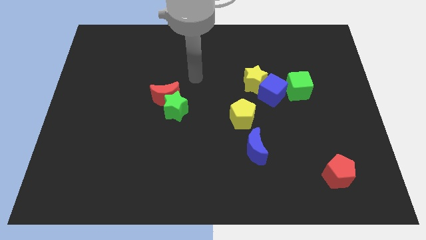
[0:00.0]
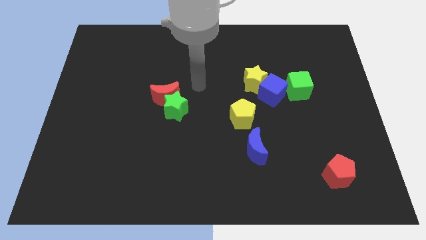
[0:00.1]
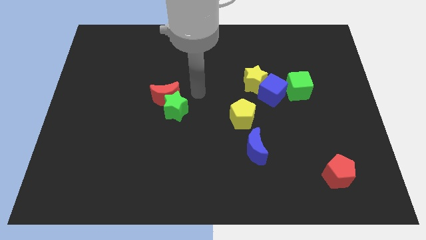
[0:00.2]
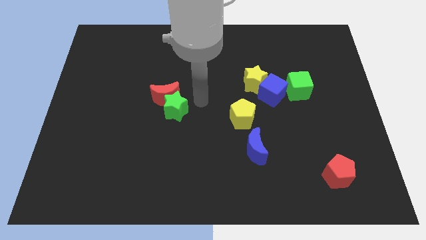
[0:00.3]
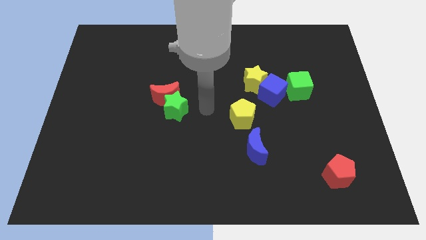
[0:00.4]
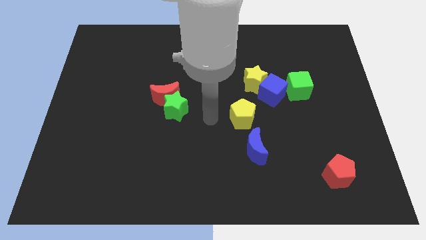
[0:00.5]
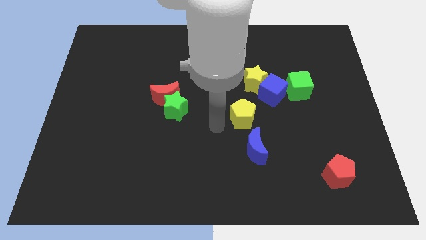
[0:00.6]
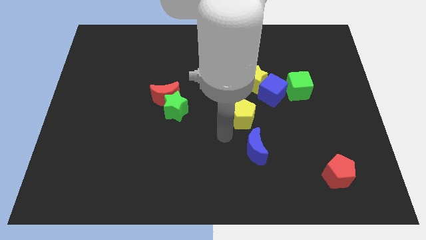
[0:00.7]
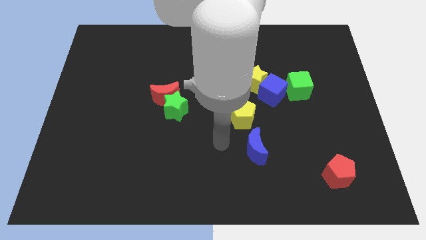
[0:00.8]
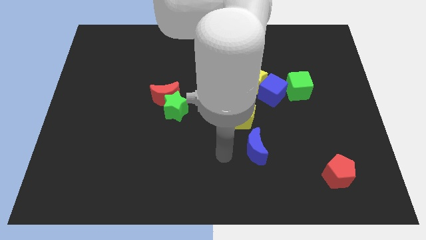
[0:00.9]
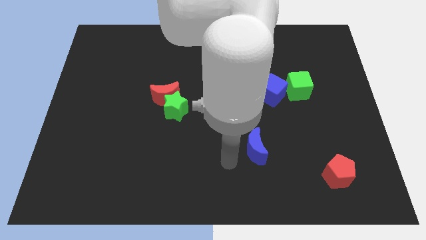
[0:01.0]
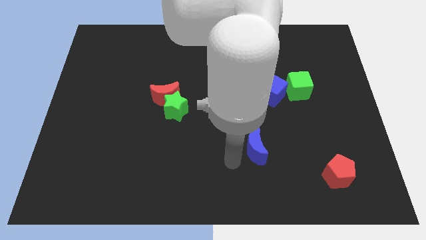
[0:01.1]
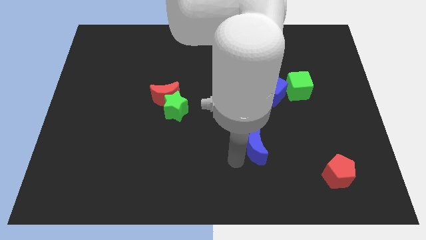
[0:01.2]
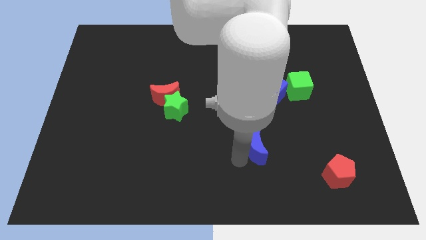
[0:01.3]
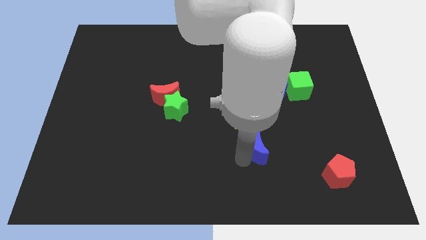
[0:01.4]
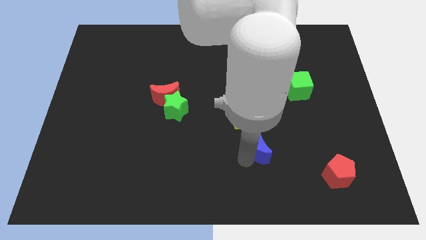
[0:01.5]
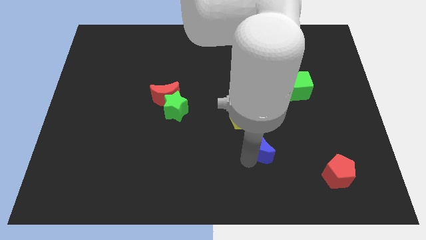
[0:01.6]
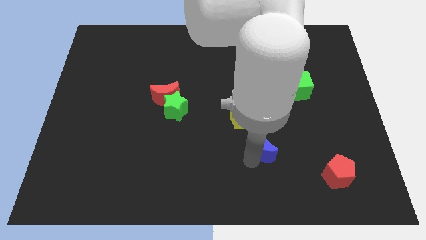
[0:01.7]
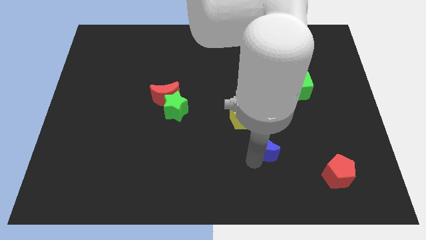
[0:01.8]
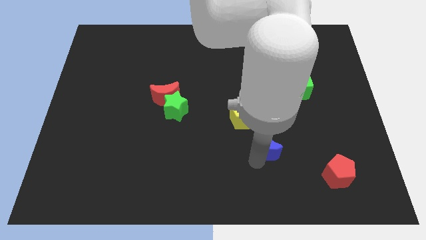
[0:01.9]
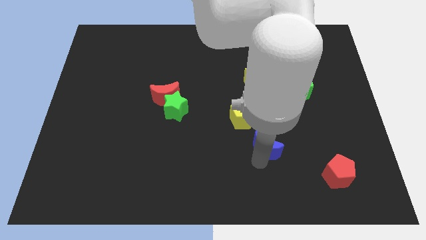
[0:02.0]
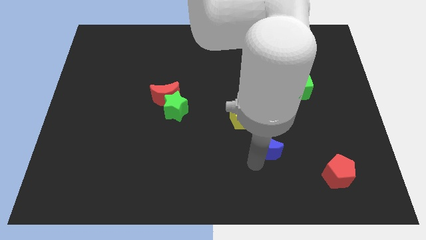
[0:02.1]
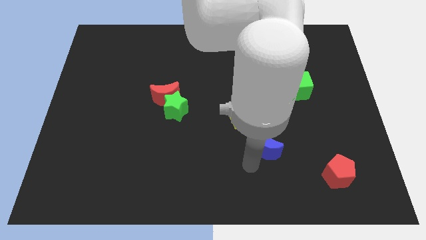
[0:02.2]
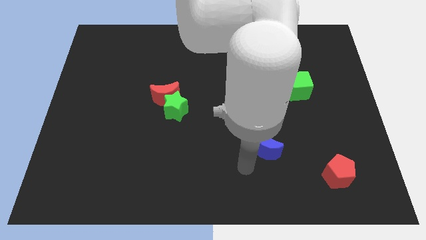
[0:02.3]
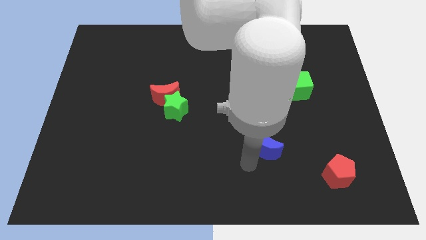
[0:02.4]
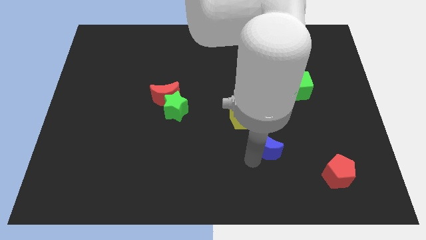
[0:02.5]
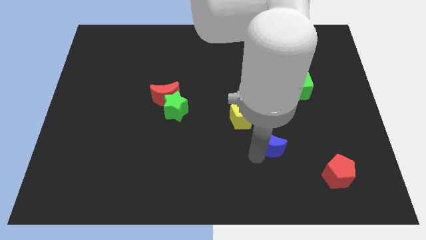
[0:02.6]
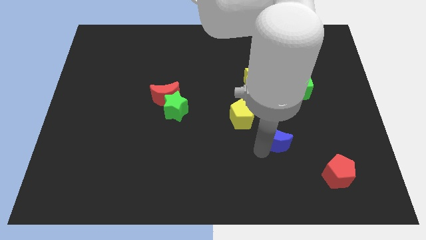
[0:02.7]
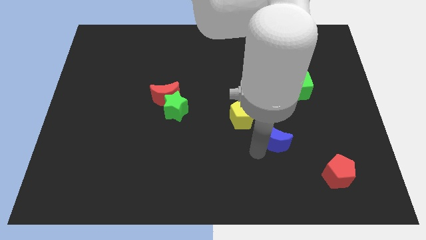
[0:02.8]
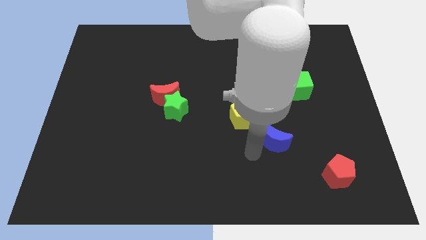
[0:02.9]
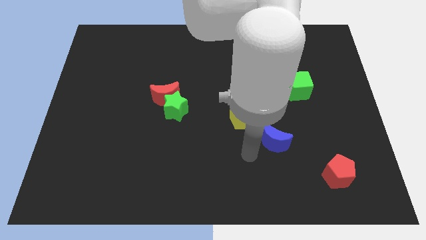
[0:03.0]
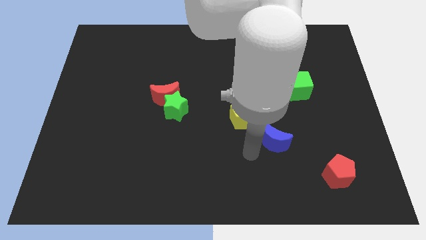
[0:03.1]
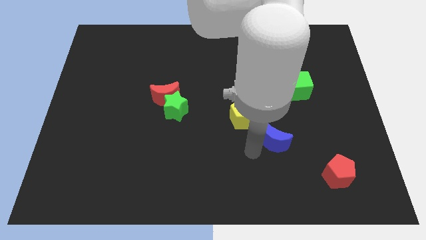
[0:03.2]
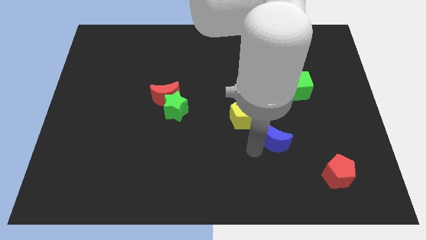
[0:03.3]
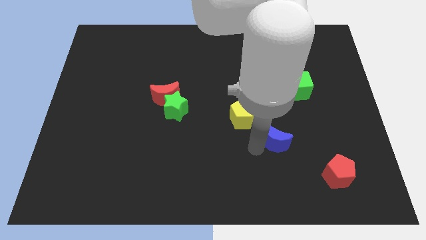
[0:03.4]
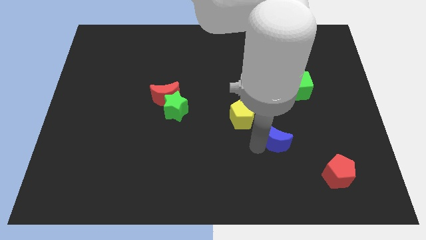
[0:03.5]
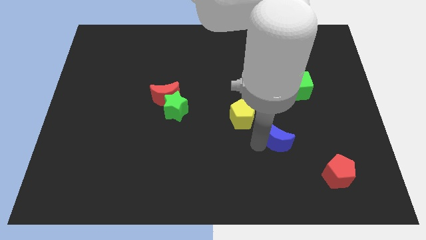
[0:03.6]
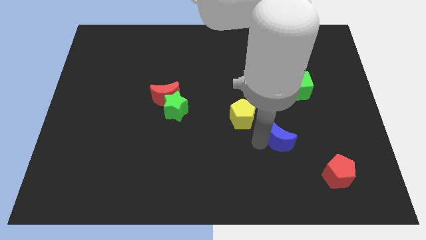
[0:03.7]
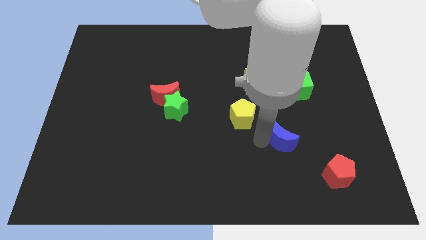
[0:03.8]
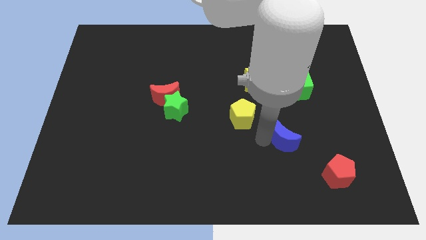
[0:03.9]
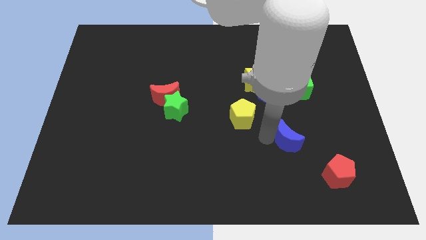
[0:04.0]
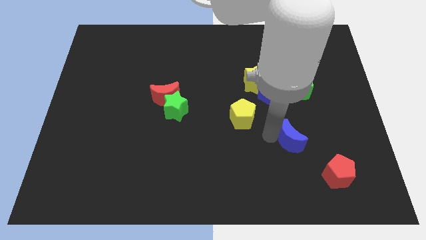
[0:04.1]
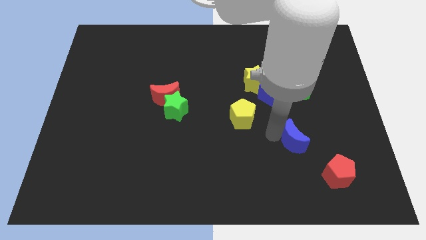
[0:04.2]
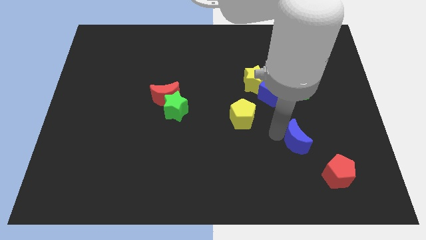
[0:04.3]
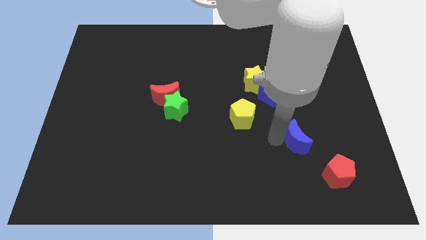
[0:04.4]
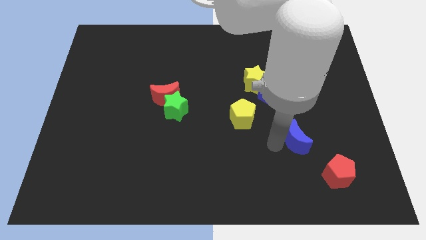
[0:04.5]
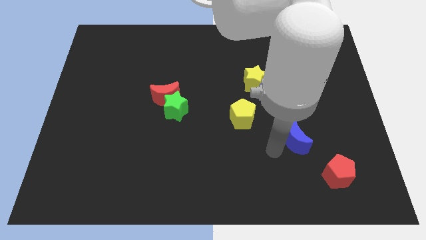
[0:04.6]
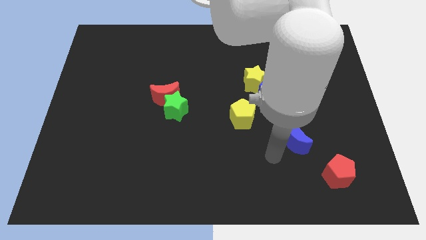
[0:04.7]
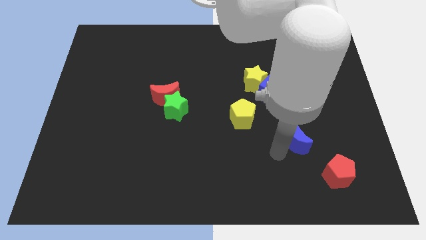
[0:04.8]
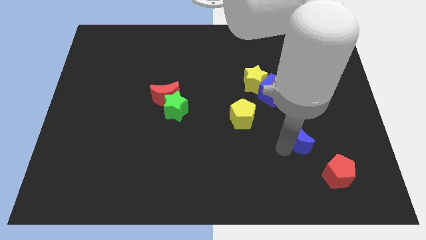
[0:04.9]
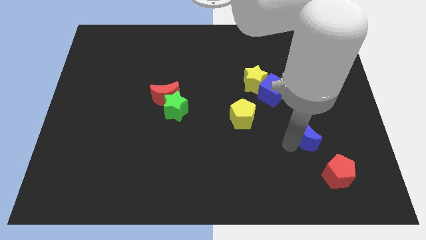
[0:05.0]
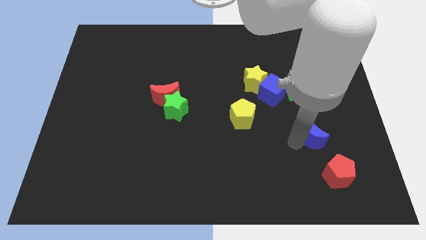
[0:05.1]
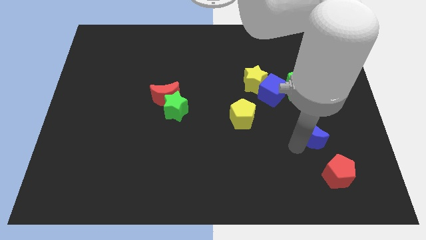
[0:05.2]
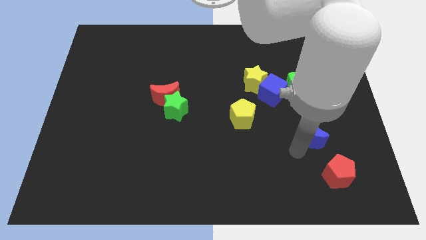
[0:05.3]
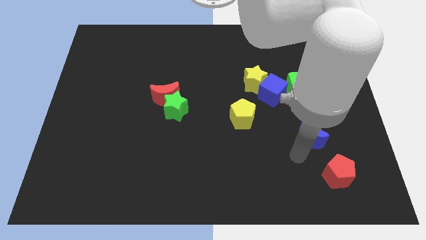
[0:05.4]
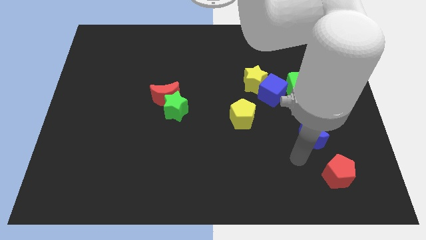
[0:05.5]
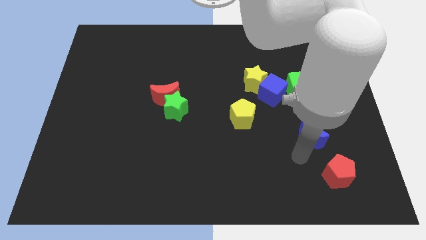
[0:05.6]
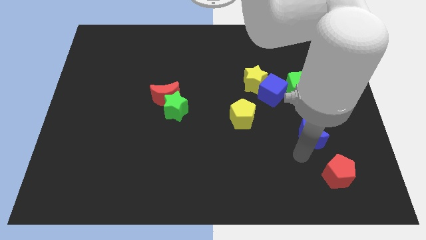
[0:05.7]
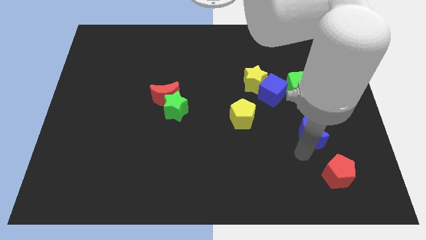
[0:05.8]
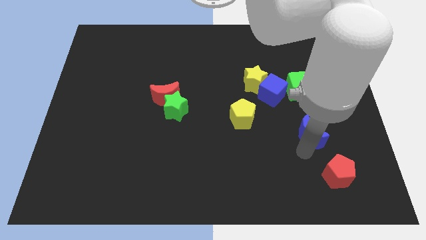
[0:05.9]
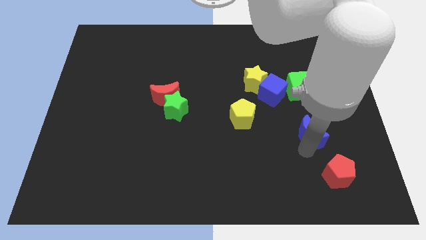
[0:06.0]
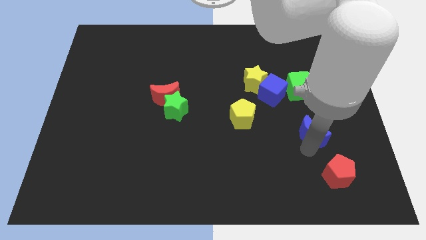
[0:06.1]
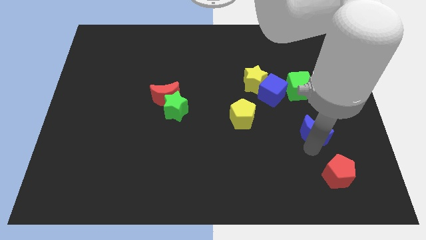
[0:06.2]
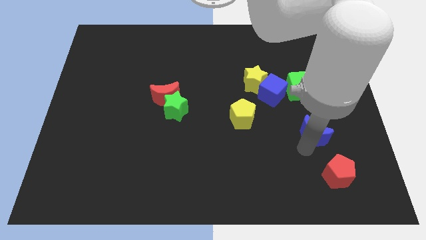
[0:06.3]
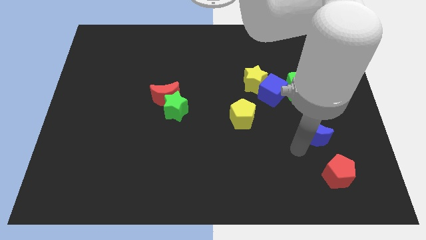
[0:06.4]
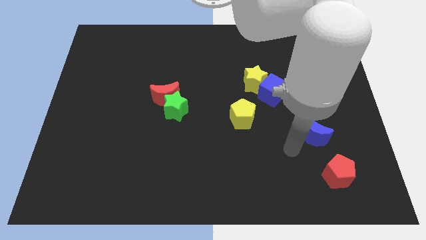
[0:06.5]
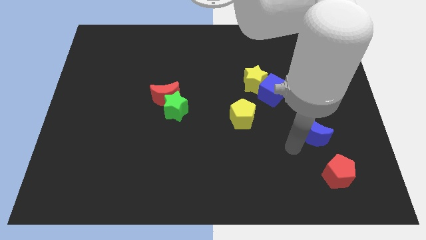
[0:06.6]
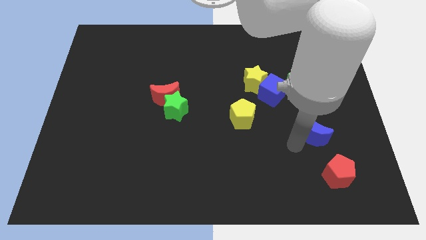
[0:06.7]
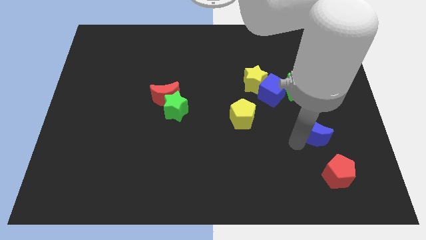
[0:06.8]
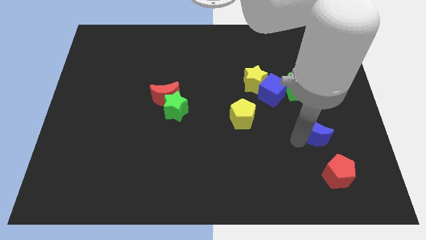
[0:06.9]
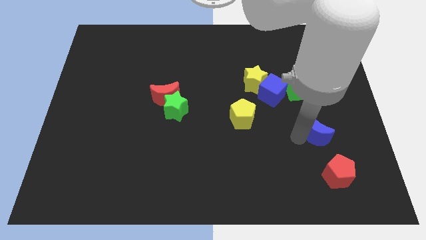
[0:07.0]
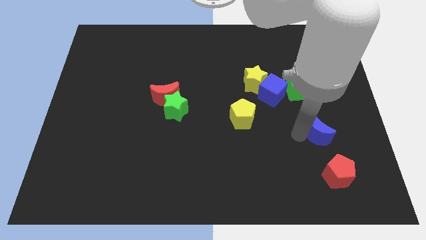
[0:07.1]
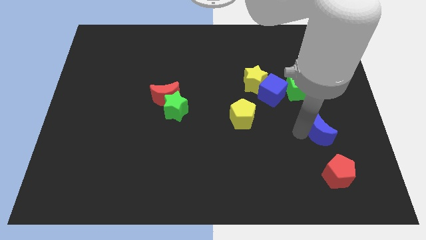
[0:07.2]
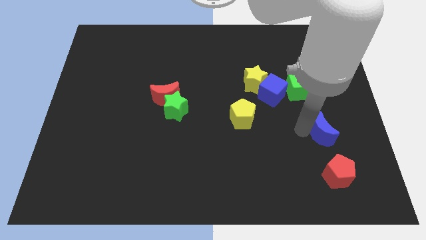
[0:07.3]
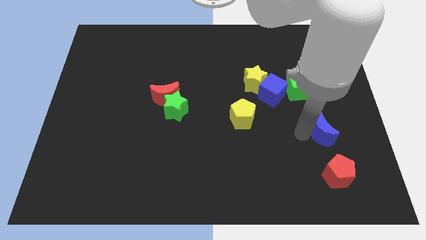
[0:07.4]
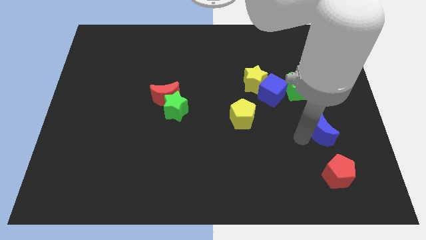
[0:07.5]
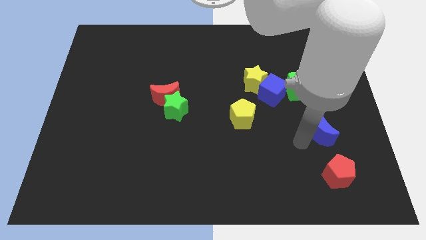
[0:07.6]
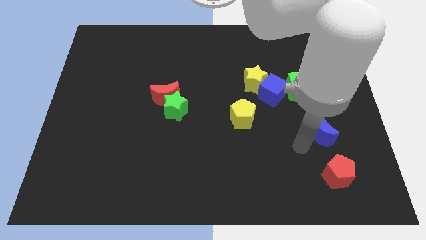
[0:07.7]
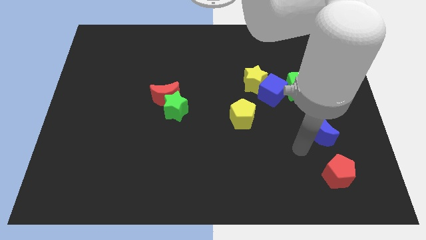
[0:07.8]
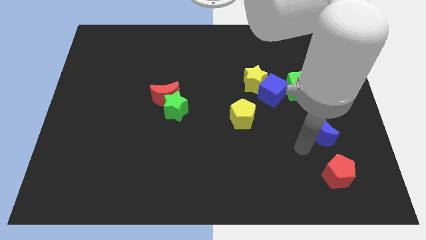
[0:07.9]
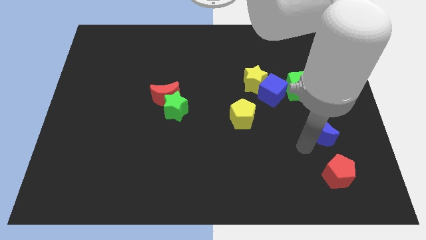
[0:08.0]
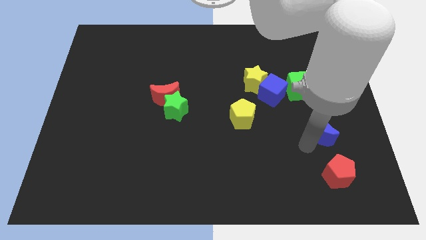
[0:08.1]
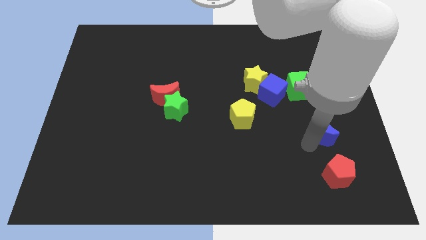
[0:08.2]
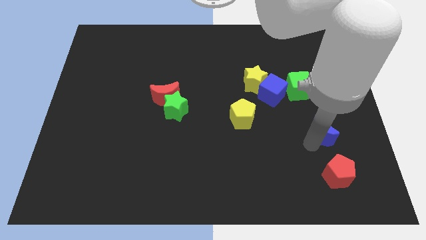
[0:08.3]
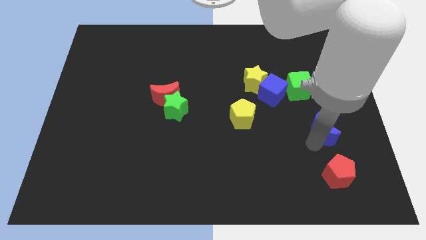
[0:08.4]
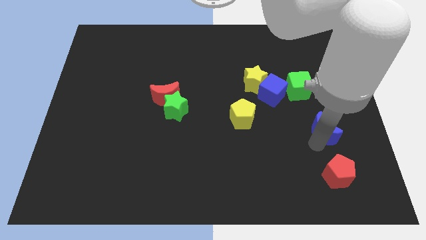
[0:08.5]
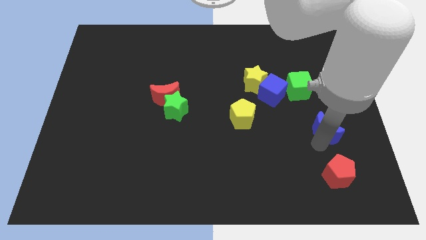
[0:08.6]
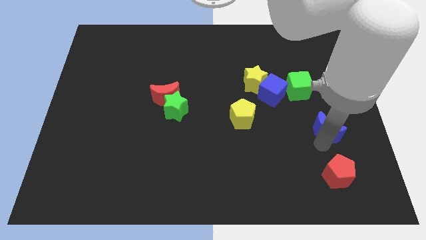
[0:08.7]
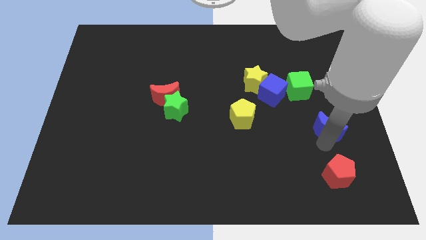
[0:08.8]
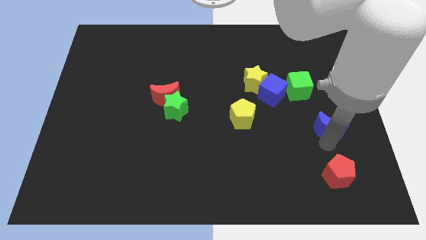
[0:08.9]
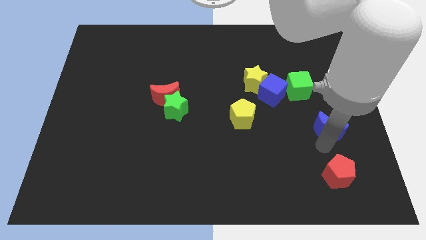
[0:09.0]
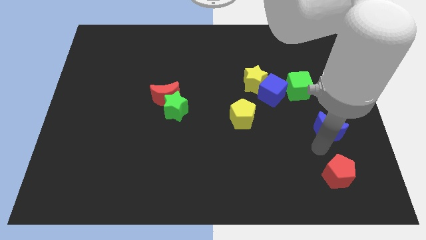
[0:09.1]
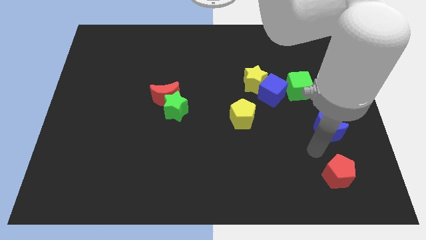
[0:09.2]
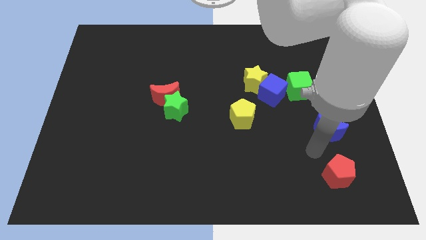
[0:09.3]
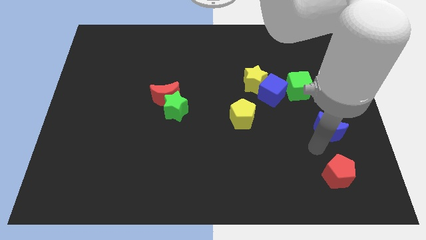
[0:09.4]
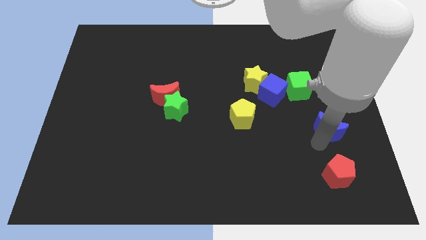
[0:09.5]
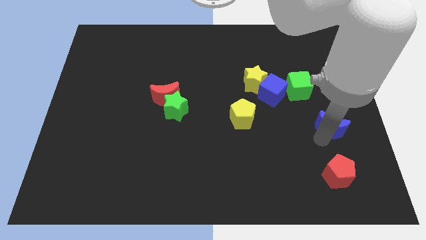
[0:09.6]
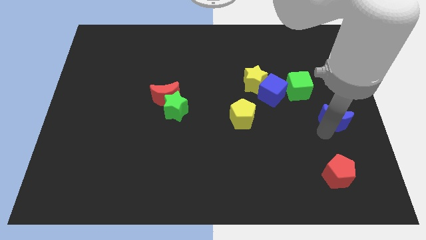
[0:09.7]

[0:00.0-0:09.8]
put the blue moon to the right side of the board
